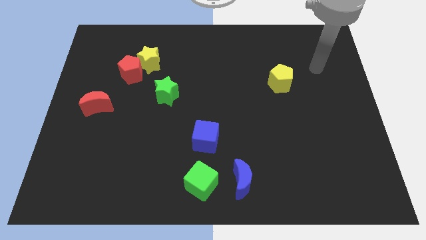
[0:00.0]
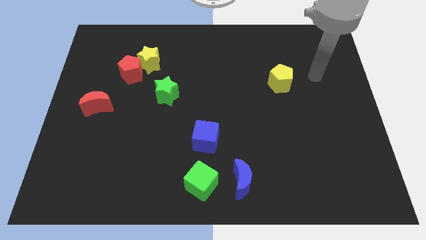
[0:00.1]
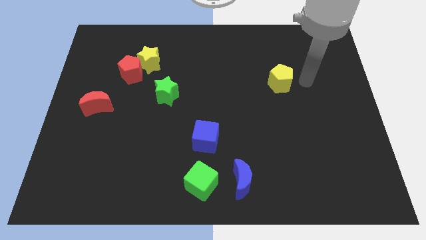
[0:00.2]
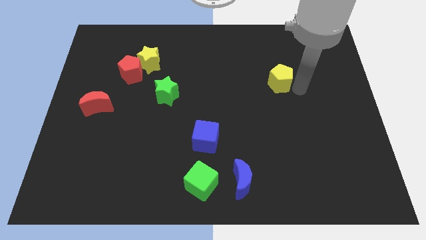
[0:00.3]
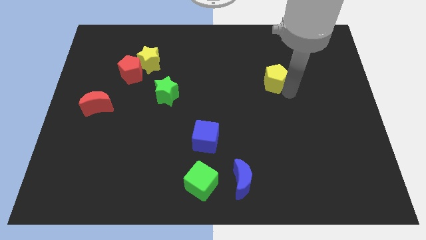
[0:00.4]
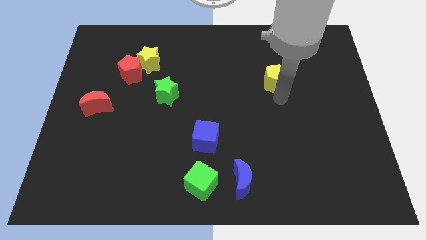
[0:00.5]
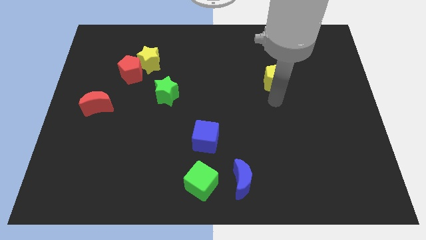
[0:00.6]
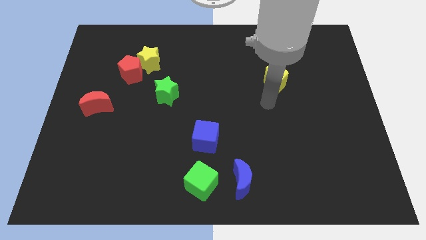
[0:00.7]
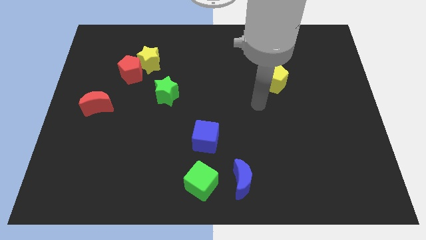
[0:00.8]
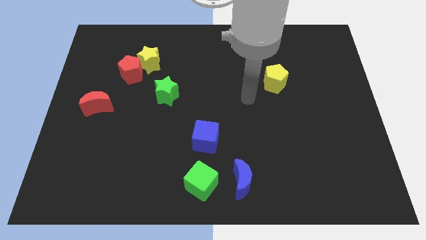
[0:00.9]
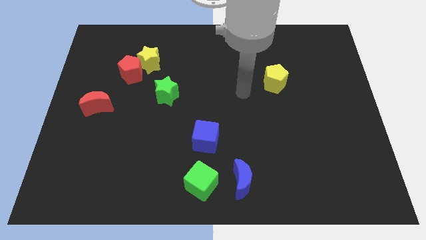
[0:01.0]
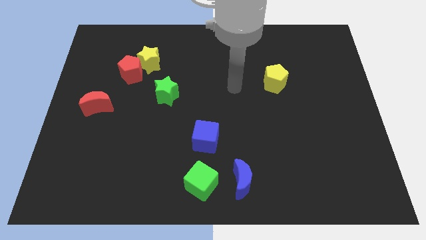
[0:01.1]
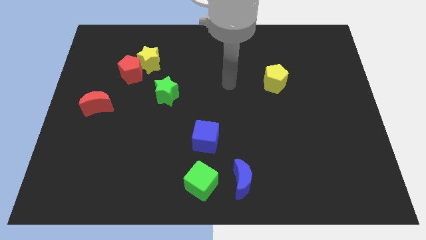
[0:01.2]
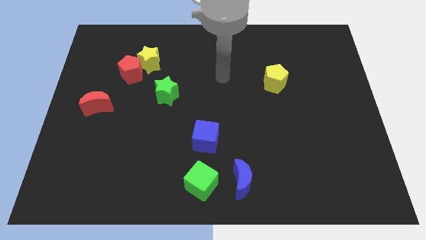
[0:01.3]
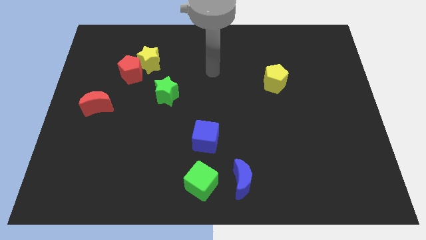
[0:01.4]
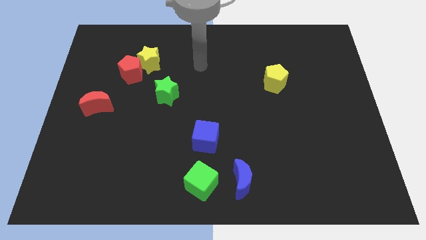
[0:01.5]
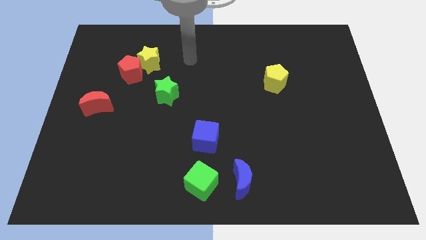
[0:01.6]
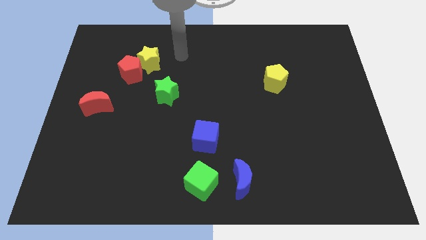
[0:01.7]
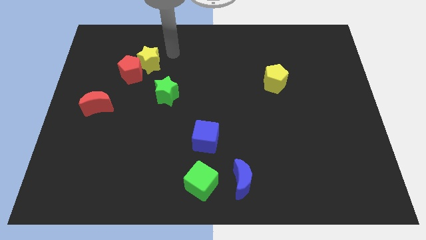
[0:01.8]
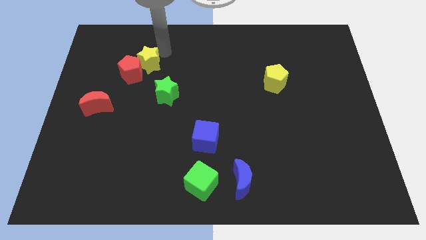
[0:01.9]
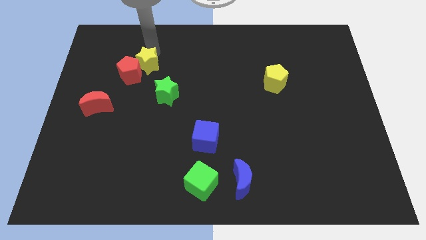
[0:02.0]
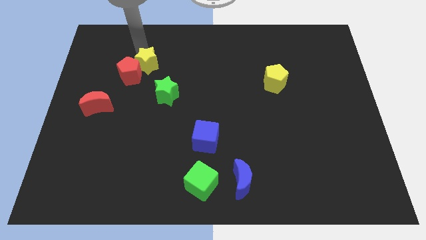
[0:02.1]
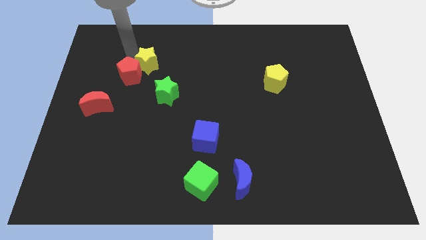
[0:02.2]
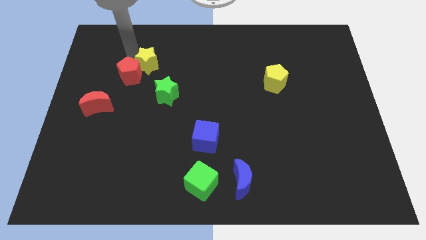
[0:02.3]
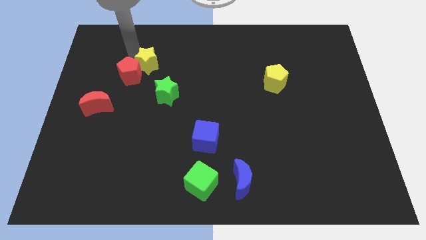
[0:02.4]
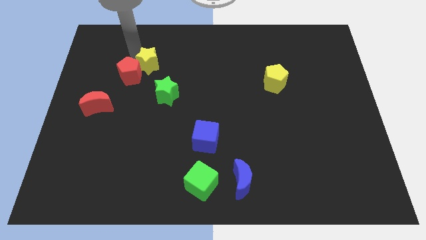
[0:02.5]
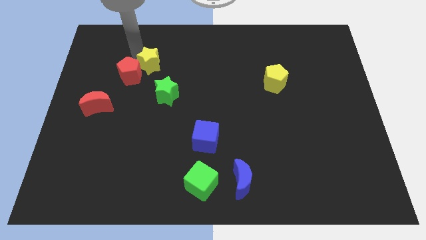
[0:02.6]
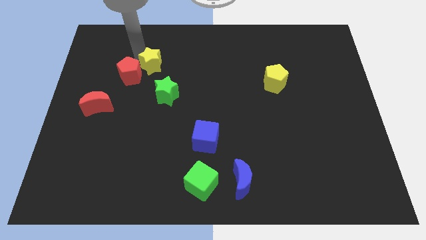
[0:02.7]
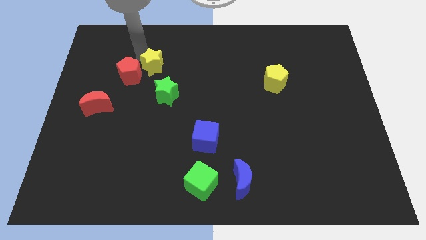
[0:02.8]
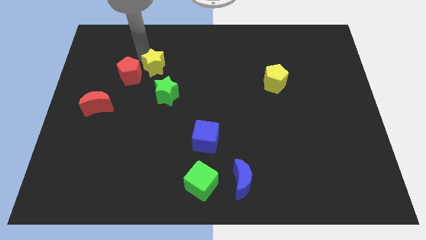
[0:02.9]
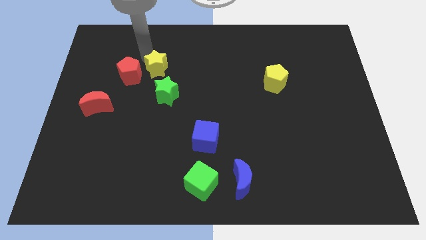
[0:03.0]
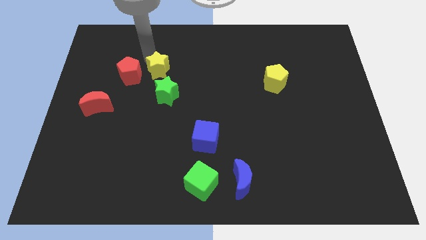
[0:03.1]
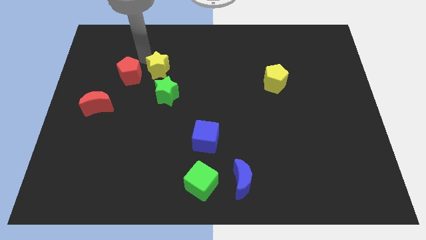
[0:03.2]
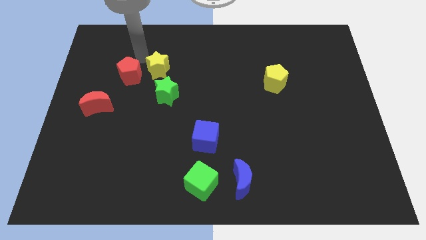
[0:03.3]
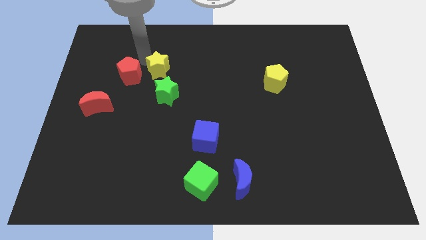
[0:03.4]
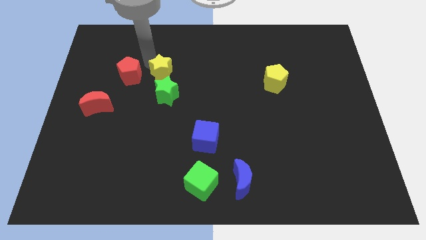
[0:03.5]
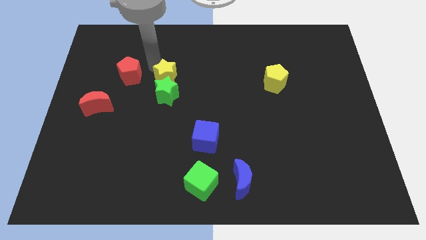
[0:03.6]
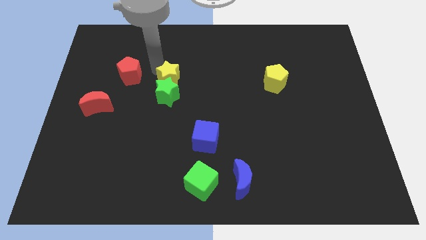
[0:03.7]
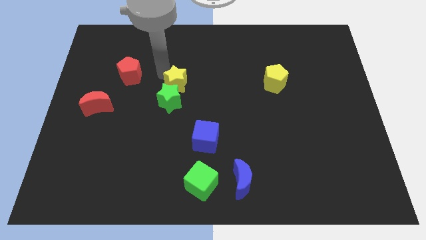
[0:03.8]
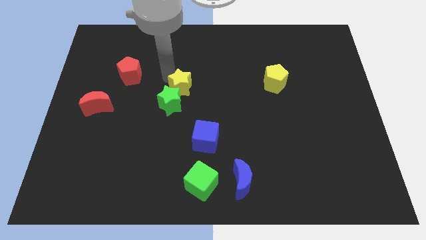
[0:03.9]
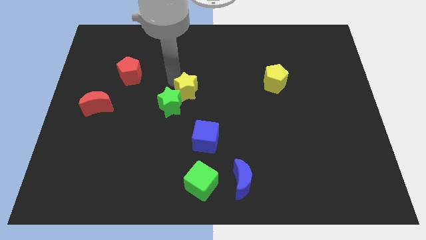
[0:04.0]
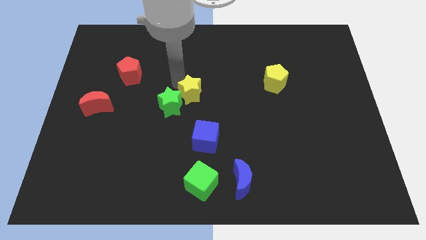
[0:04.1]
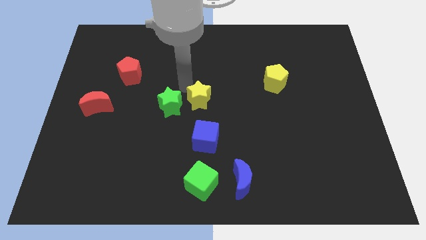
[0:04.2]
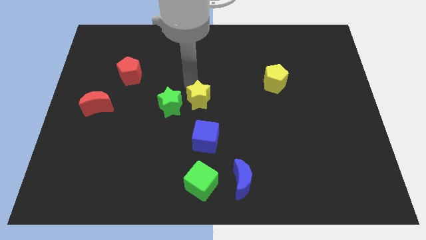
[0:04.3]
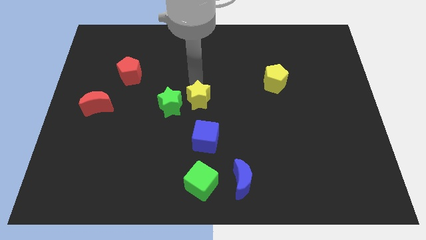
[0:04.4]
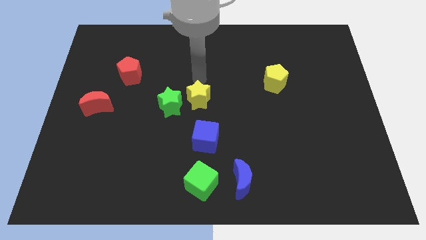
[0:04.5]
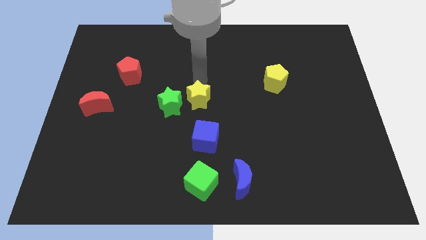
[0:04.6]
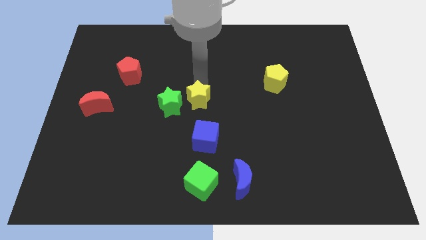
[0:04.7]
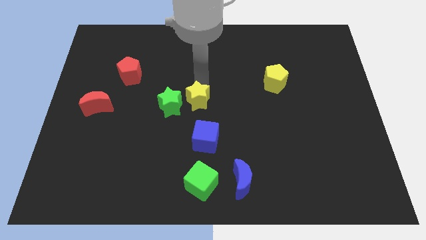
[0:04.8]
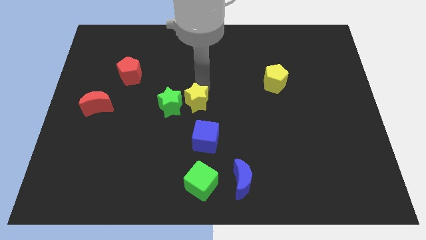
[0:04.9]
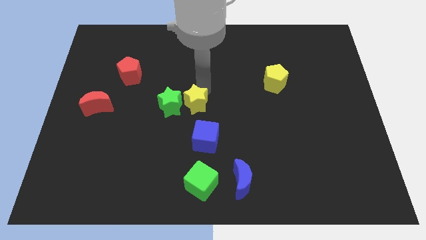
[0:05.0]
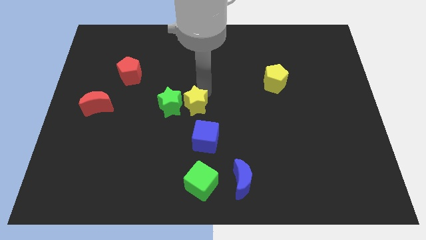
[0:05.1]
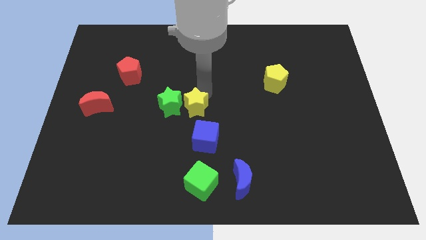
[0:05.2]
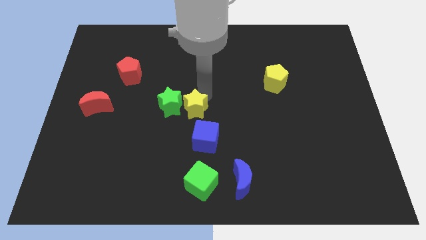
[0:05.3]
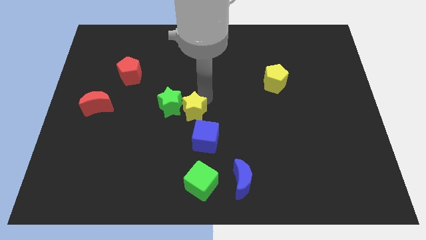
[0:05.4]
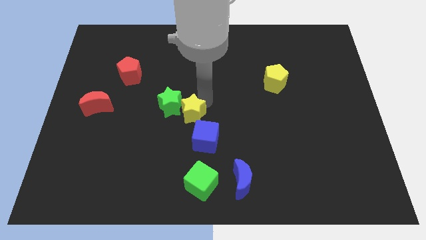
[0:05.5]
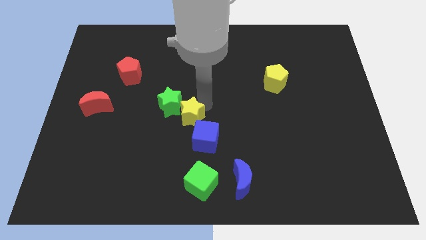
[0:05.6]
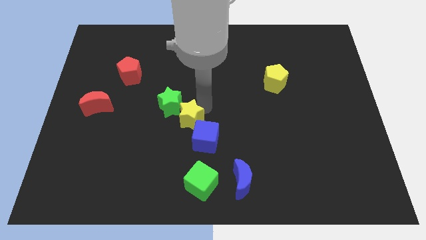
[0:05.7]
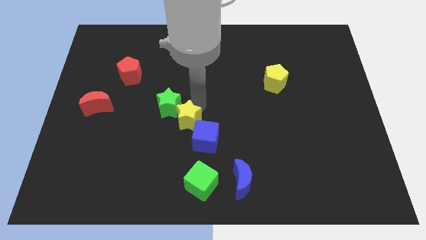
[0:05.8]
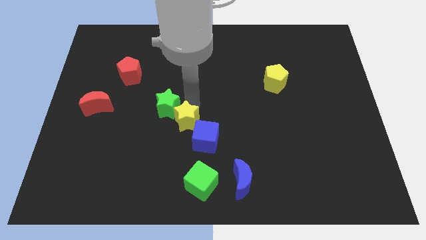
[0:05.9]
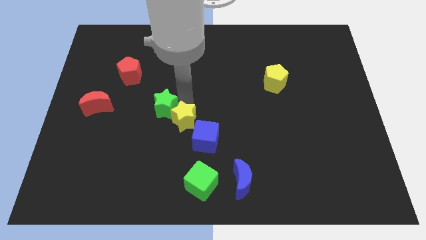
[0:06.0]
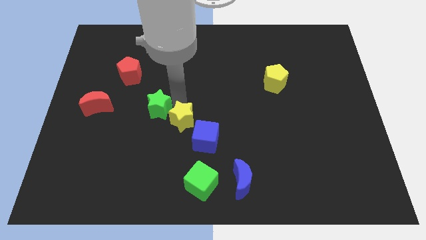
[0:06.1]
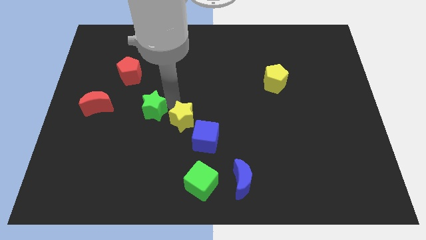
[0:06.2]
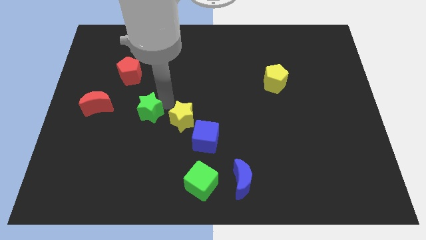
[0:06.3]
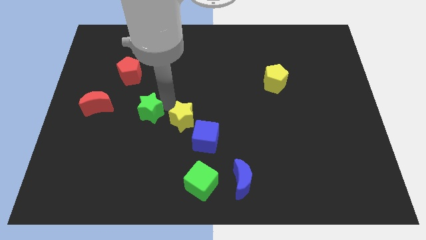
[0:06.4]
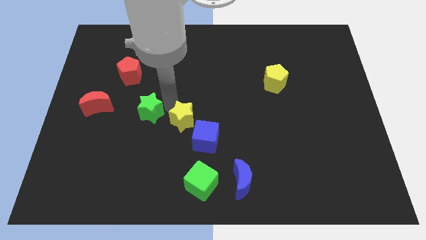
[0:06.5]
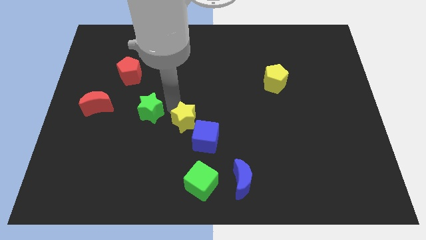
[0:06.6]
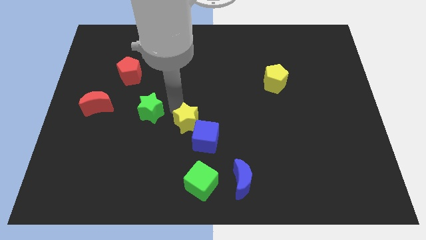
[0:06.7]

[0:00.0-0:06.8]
slide the yellow star towards the blue cube
